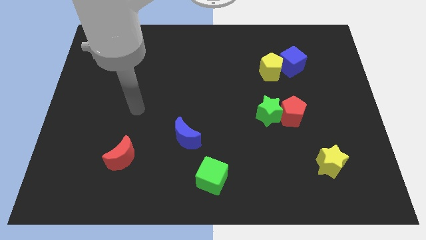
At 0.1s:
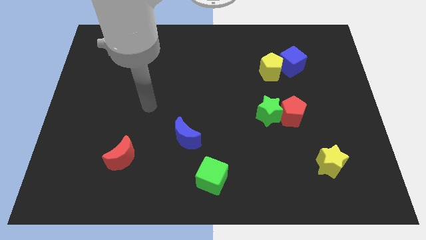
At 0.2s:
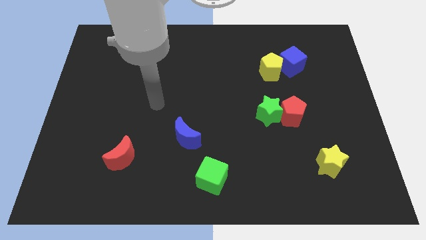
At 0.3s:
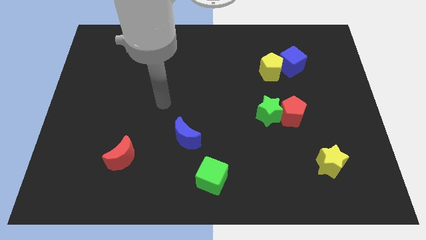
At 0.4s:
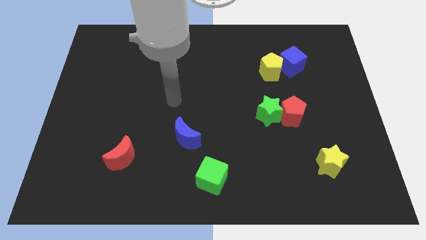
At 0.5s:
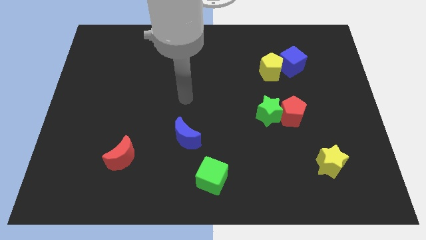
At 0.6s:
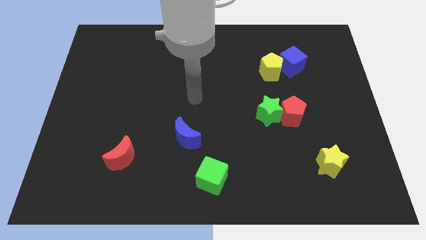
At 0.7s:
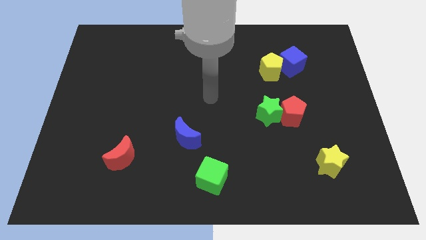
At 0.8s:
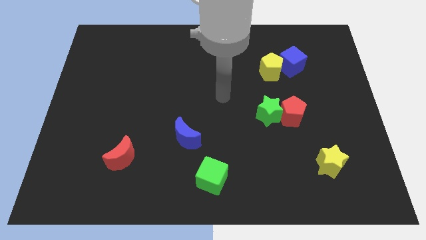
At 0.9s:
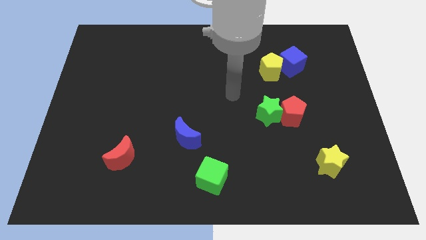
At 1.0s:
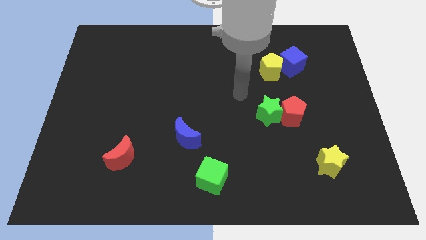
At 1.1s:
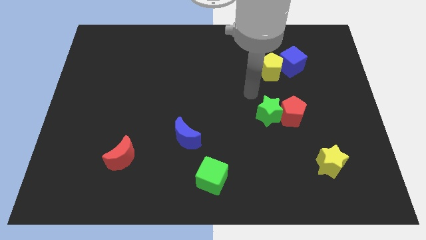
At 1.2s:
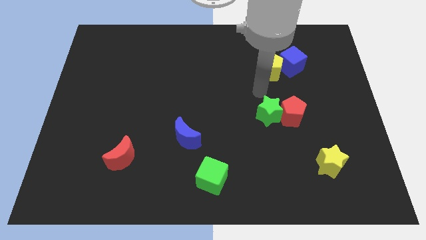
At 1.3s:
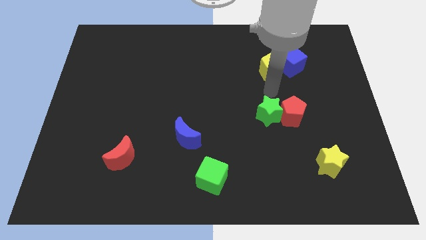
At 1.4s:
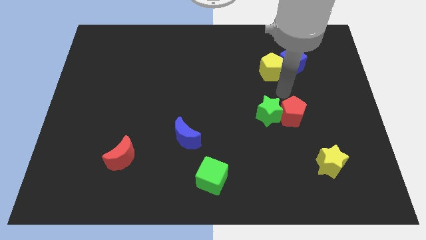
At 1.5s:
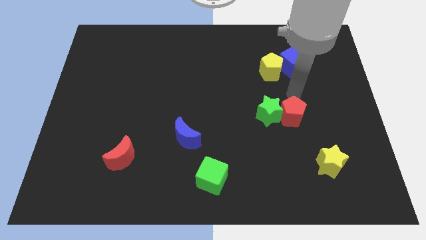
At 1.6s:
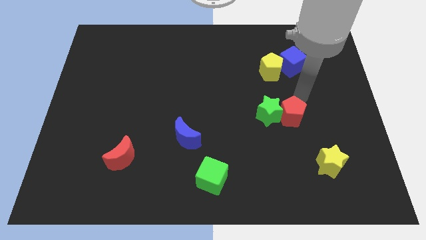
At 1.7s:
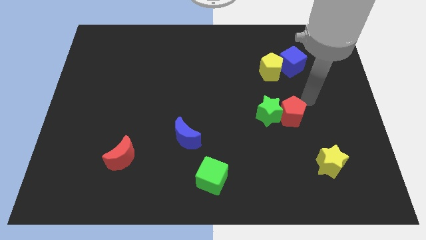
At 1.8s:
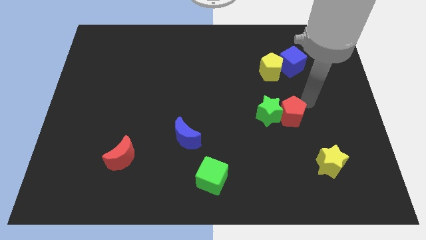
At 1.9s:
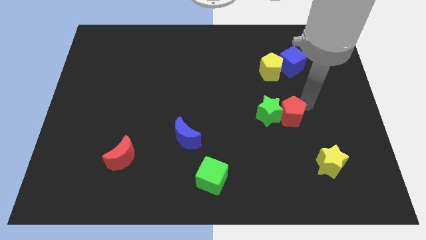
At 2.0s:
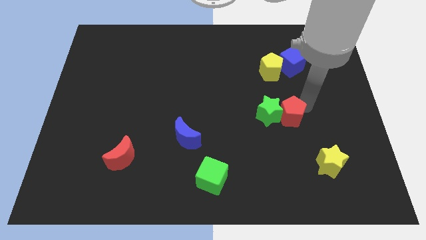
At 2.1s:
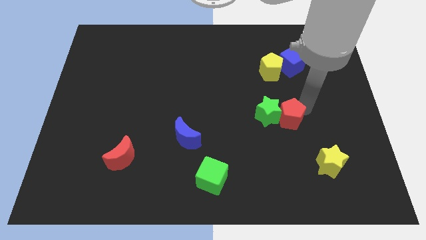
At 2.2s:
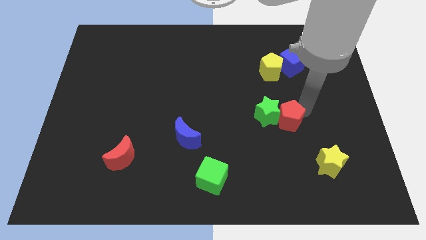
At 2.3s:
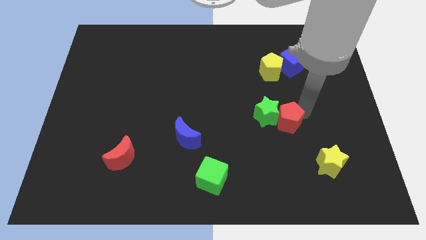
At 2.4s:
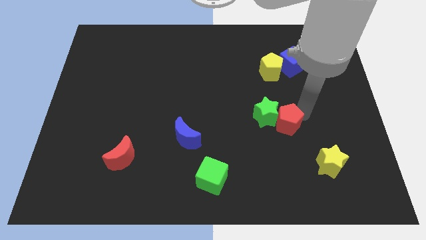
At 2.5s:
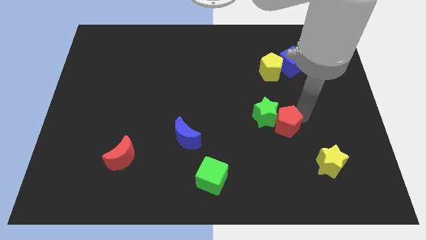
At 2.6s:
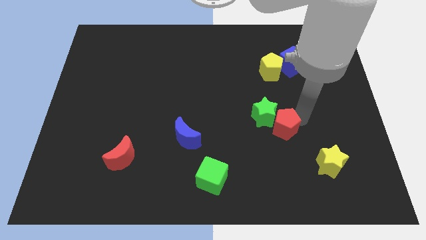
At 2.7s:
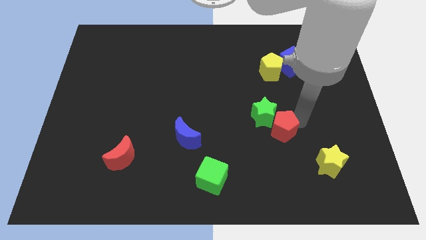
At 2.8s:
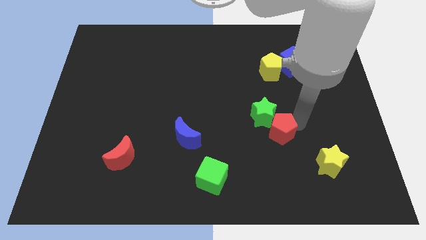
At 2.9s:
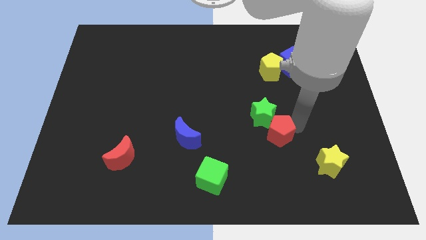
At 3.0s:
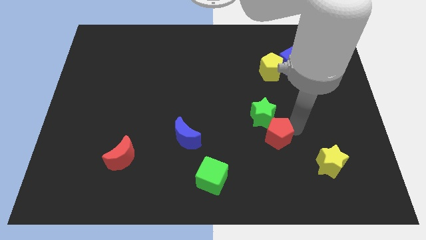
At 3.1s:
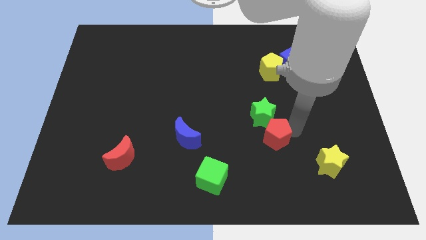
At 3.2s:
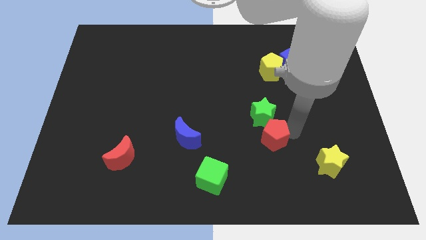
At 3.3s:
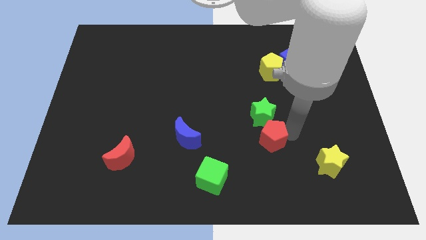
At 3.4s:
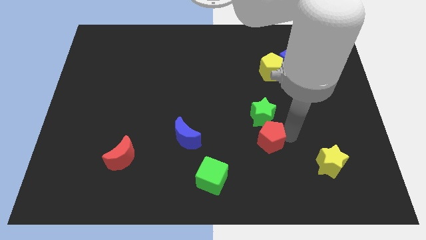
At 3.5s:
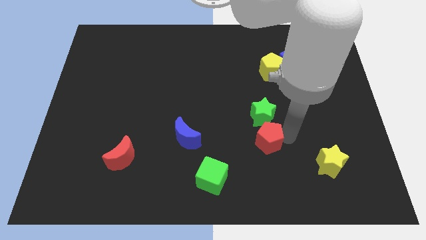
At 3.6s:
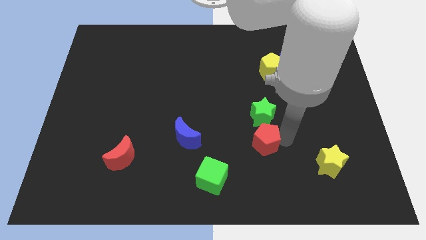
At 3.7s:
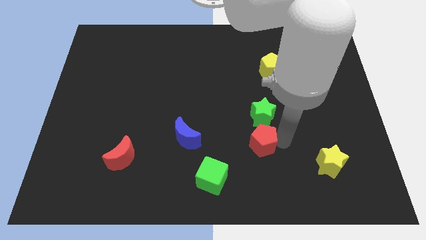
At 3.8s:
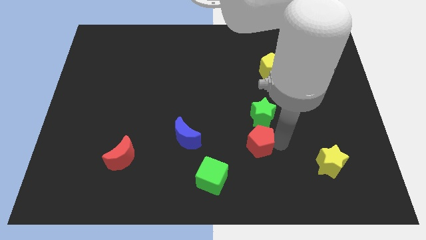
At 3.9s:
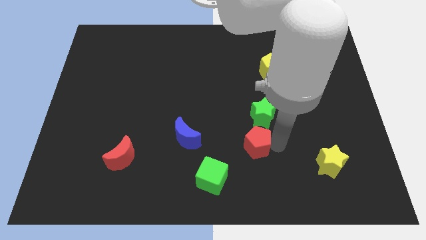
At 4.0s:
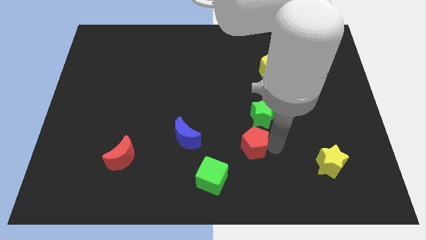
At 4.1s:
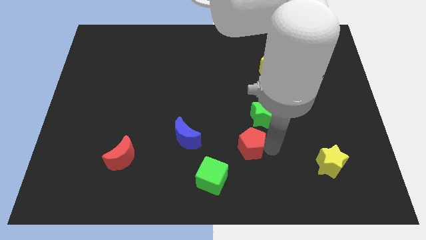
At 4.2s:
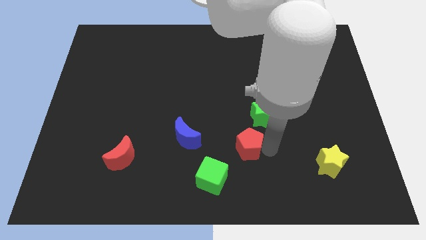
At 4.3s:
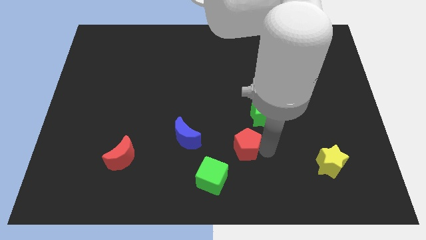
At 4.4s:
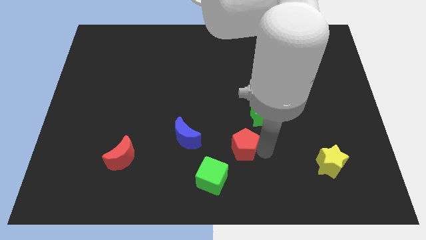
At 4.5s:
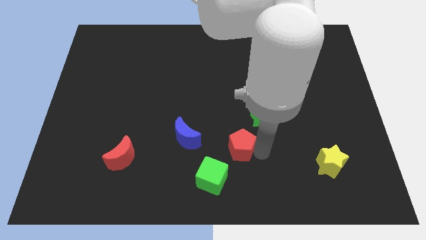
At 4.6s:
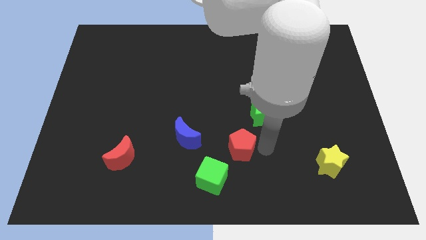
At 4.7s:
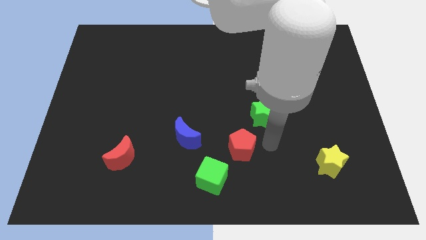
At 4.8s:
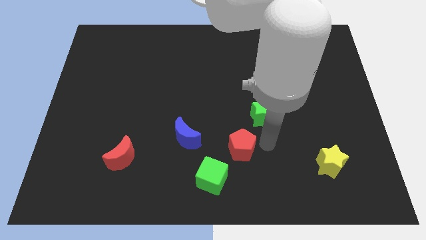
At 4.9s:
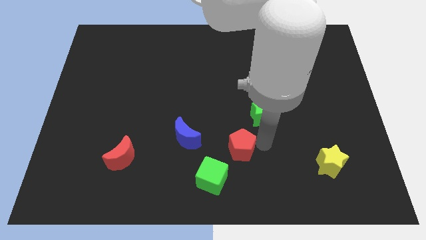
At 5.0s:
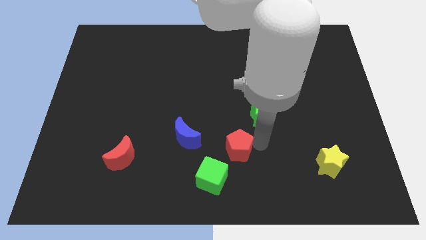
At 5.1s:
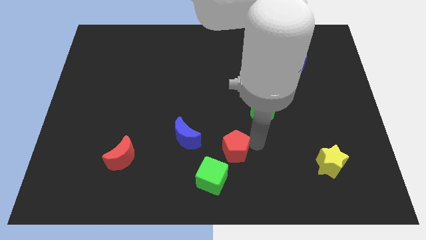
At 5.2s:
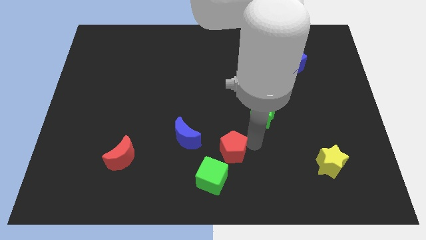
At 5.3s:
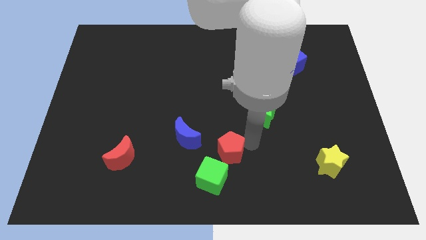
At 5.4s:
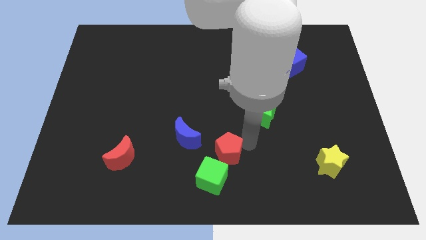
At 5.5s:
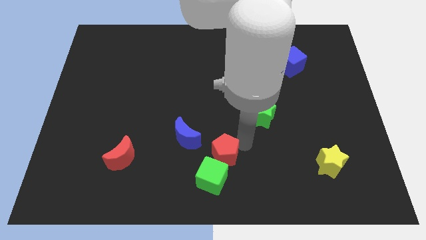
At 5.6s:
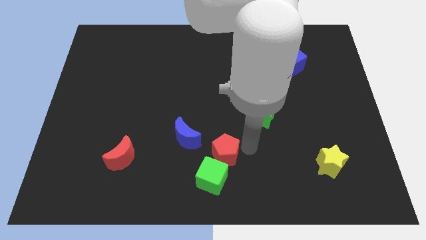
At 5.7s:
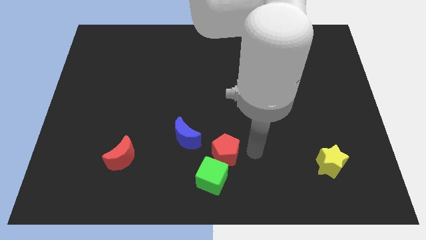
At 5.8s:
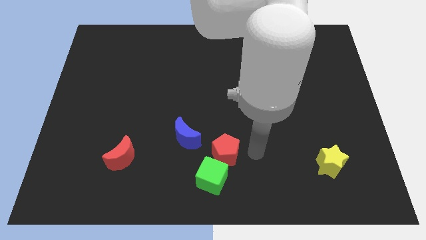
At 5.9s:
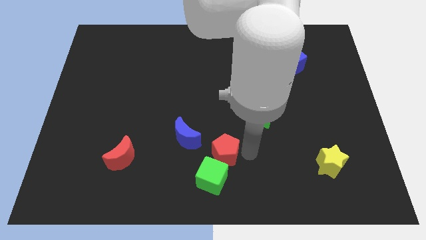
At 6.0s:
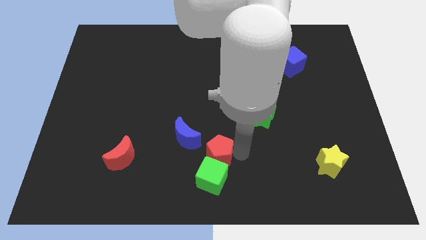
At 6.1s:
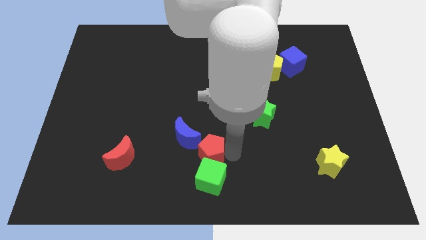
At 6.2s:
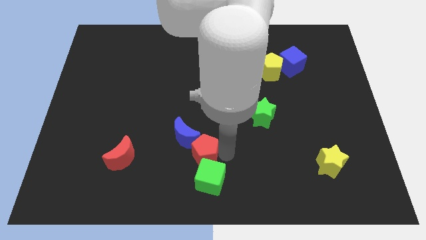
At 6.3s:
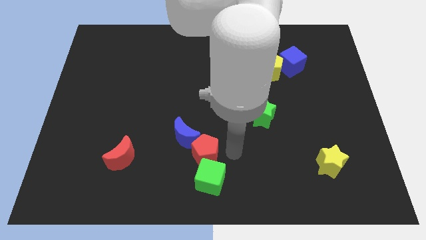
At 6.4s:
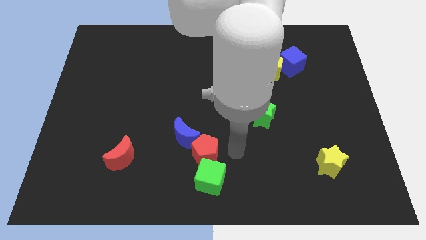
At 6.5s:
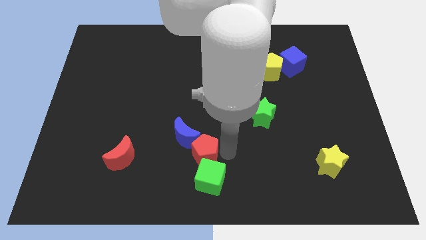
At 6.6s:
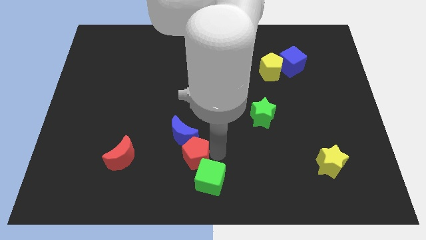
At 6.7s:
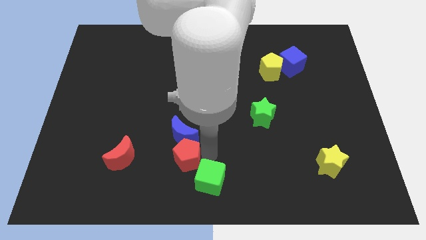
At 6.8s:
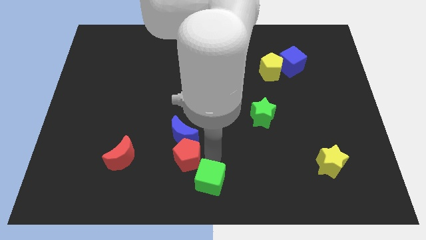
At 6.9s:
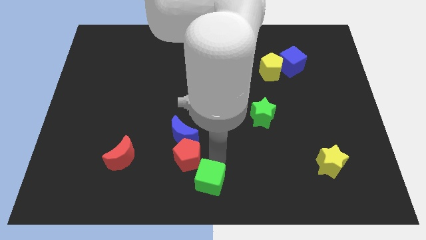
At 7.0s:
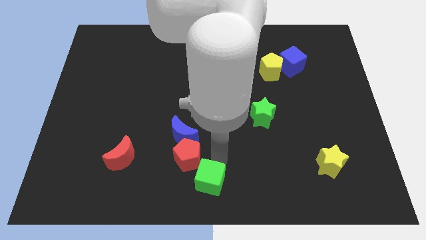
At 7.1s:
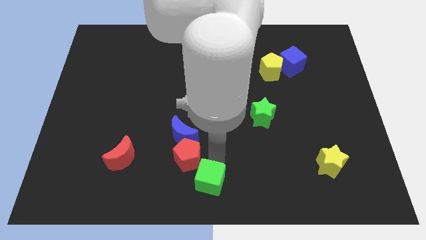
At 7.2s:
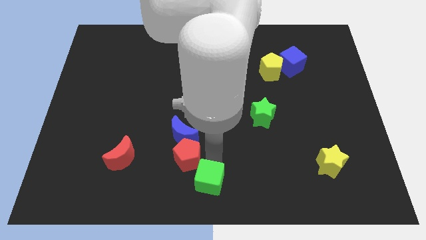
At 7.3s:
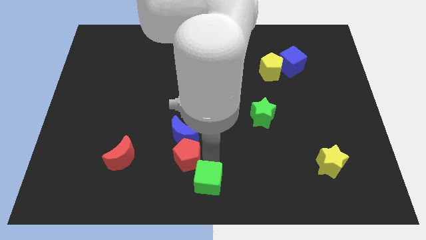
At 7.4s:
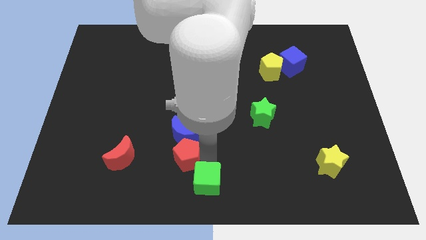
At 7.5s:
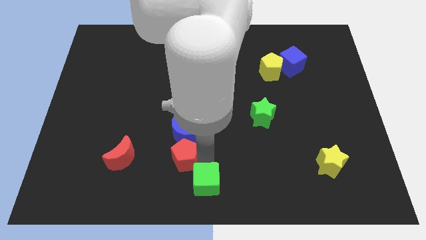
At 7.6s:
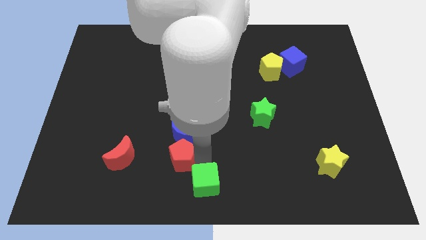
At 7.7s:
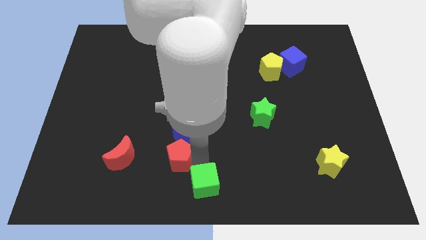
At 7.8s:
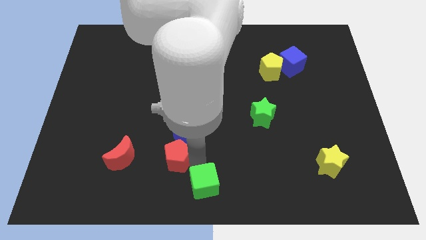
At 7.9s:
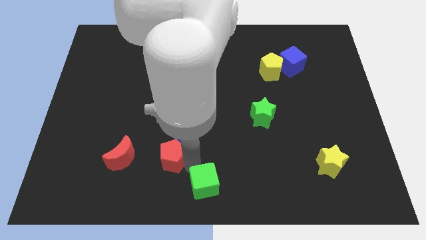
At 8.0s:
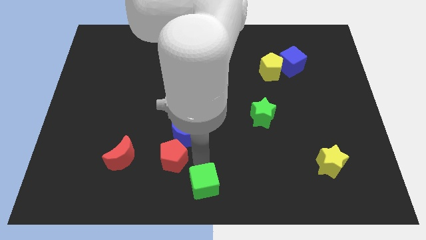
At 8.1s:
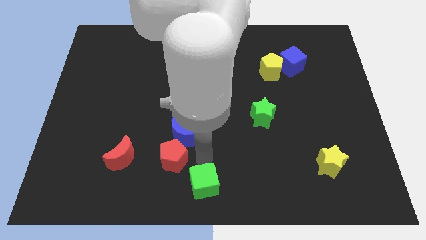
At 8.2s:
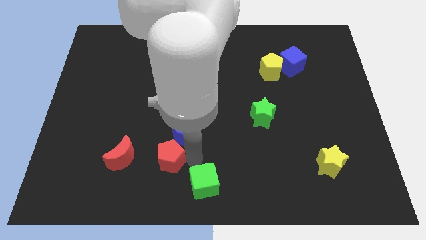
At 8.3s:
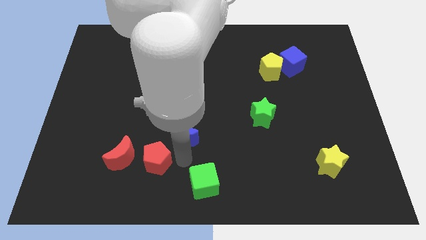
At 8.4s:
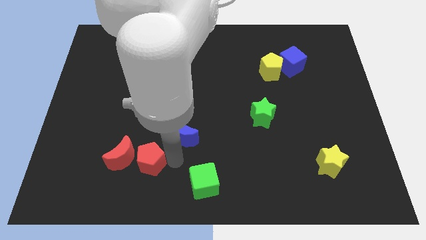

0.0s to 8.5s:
move the red pentagon towards the red moon
